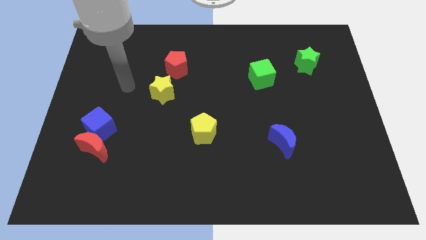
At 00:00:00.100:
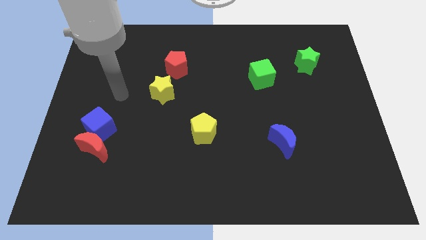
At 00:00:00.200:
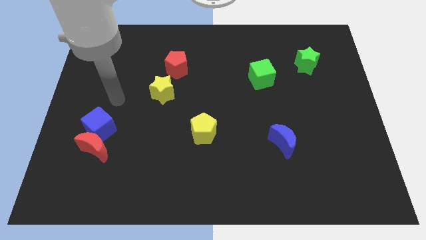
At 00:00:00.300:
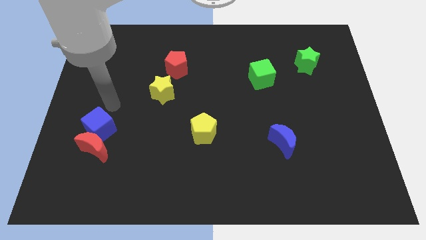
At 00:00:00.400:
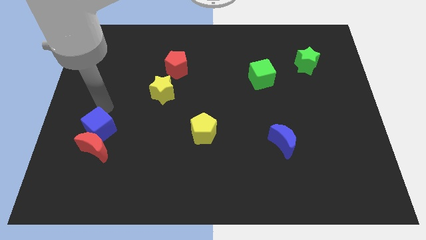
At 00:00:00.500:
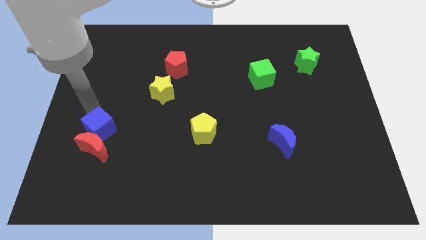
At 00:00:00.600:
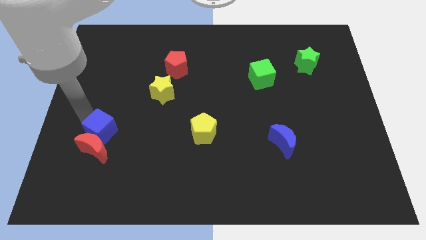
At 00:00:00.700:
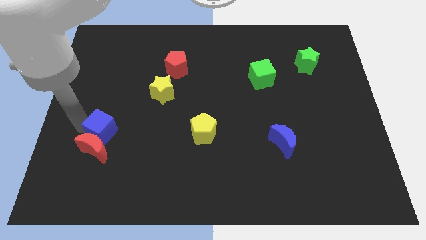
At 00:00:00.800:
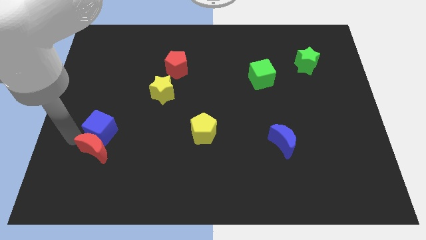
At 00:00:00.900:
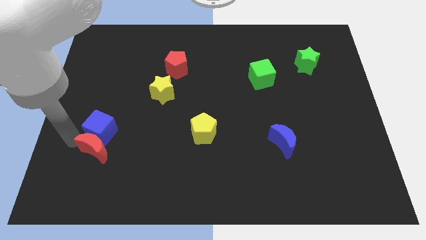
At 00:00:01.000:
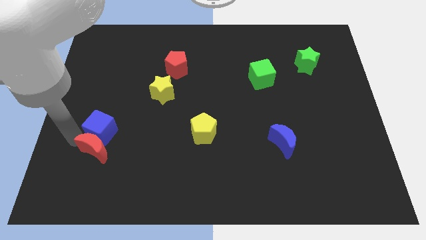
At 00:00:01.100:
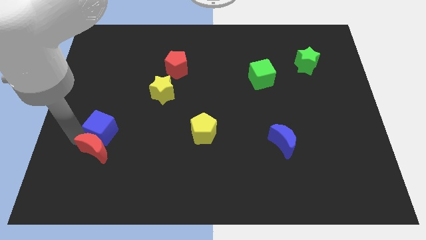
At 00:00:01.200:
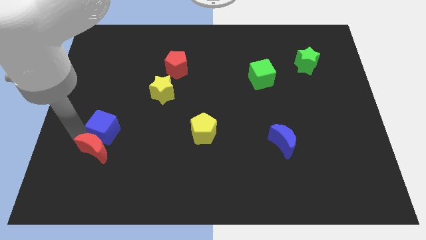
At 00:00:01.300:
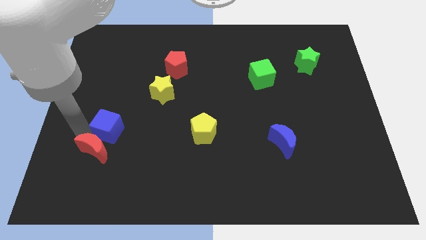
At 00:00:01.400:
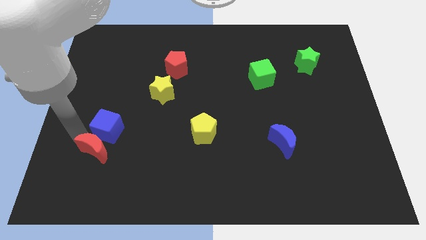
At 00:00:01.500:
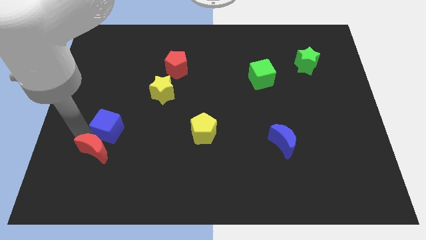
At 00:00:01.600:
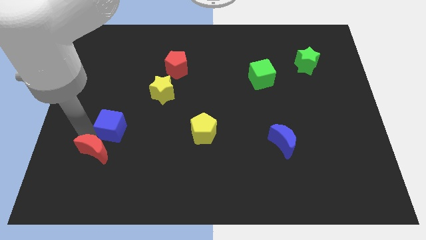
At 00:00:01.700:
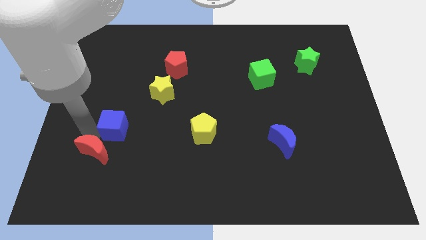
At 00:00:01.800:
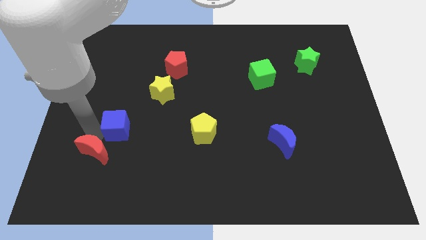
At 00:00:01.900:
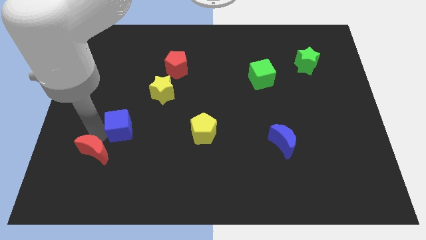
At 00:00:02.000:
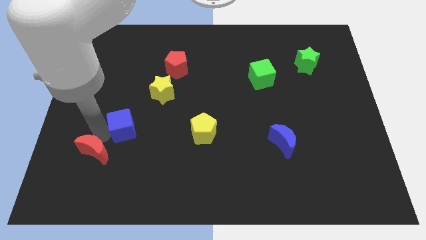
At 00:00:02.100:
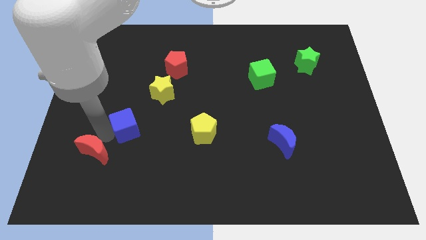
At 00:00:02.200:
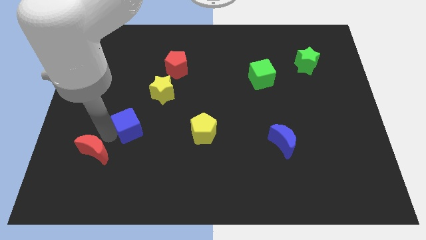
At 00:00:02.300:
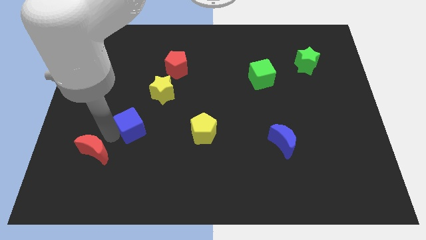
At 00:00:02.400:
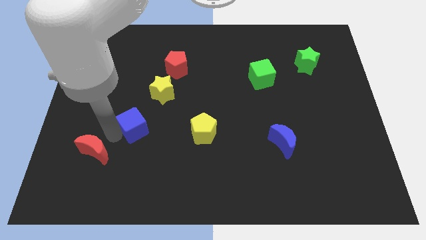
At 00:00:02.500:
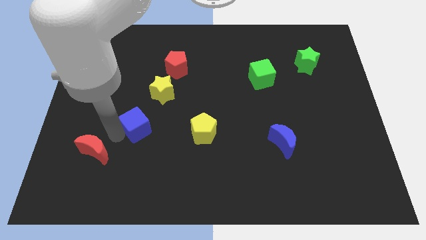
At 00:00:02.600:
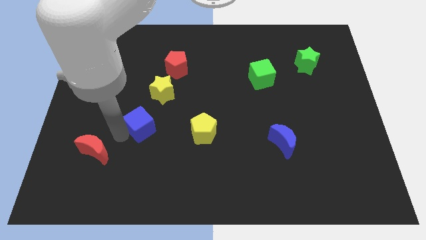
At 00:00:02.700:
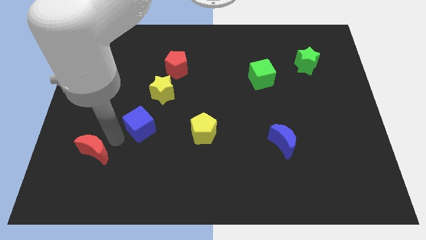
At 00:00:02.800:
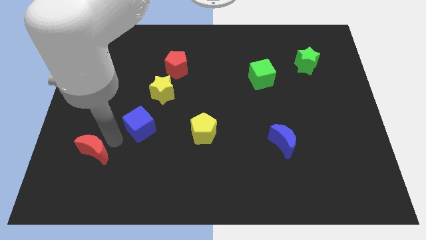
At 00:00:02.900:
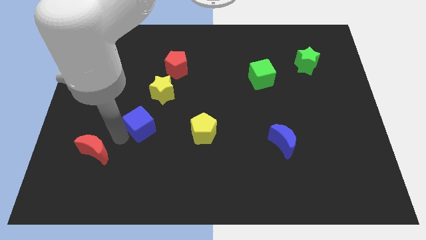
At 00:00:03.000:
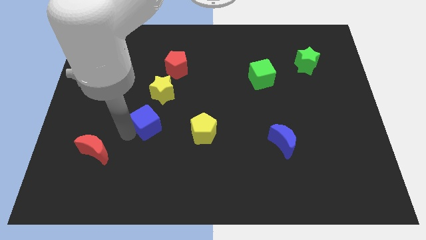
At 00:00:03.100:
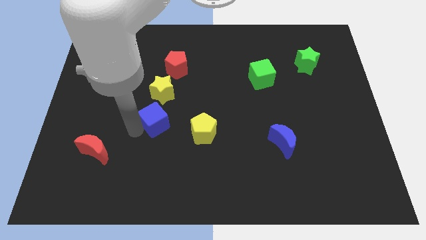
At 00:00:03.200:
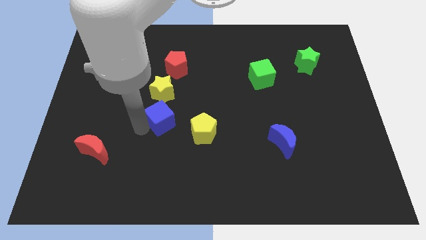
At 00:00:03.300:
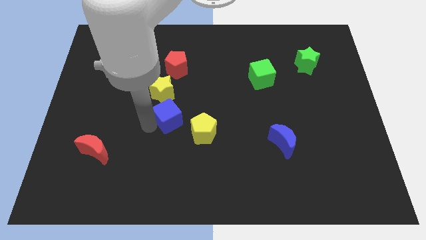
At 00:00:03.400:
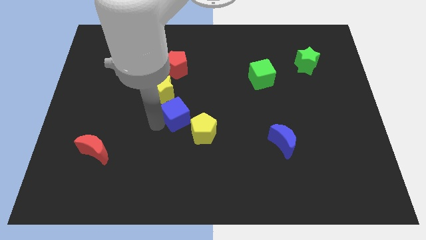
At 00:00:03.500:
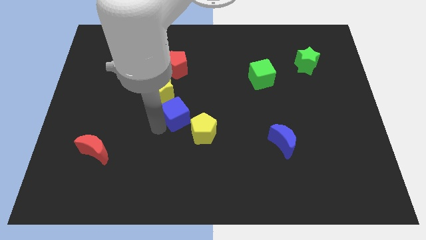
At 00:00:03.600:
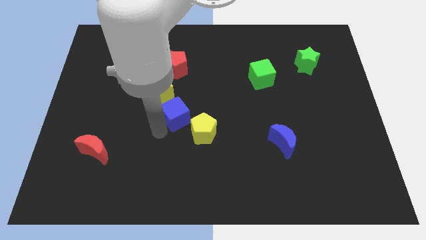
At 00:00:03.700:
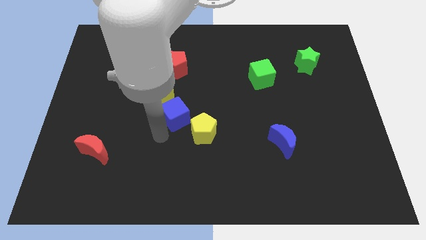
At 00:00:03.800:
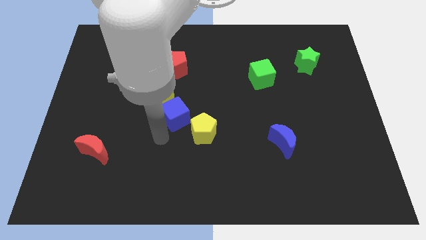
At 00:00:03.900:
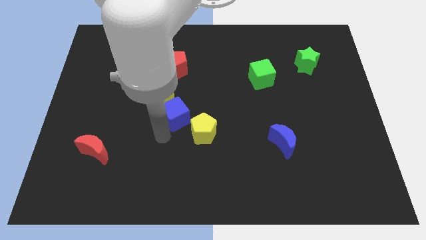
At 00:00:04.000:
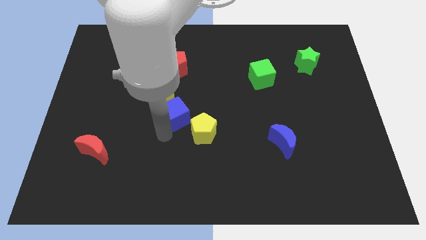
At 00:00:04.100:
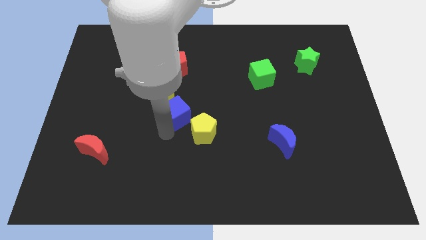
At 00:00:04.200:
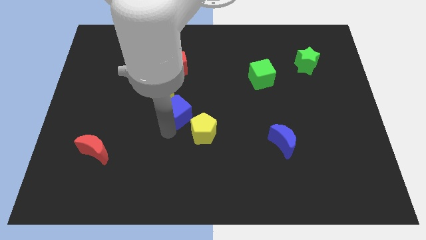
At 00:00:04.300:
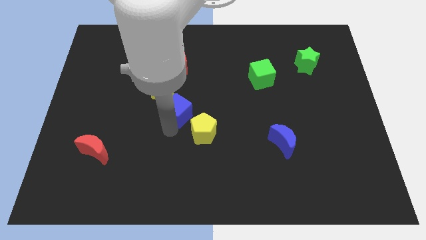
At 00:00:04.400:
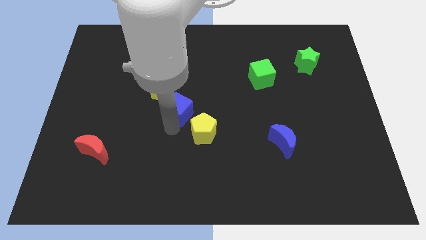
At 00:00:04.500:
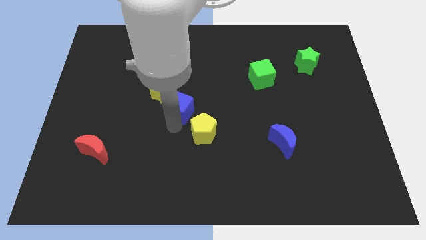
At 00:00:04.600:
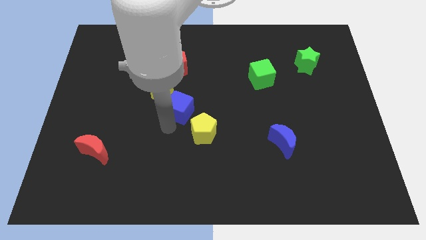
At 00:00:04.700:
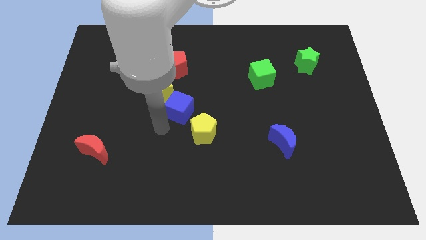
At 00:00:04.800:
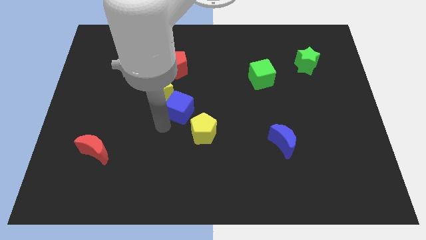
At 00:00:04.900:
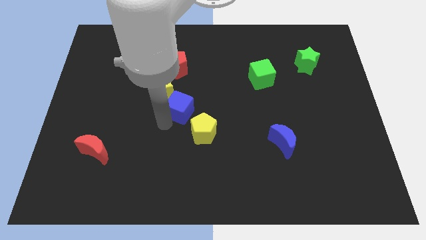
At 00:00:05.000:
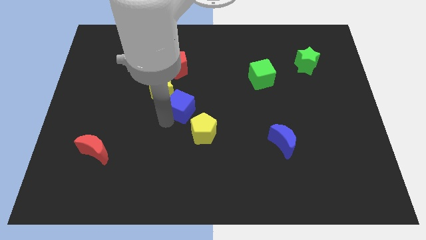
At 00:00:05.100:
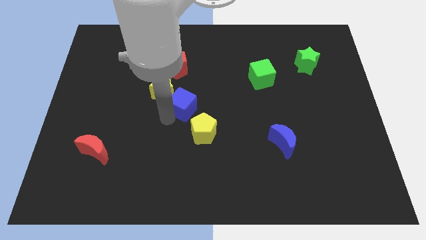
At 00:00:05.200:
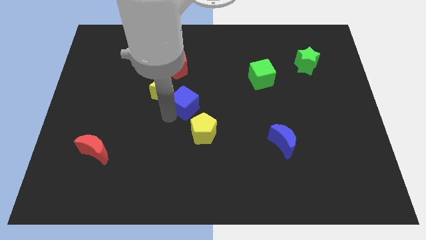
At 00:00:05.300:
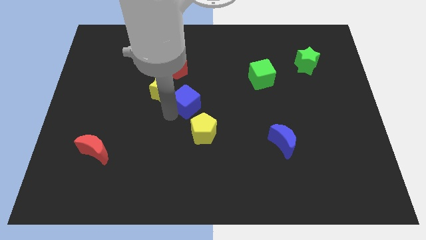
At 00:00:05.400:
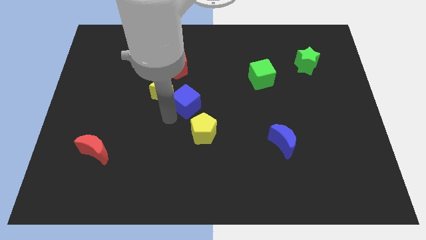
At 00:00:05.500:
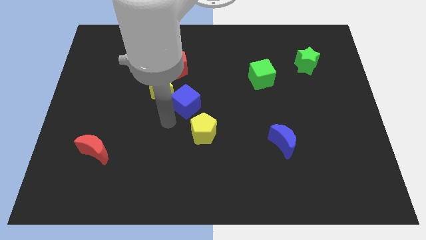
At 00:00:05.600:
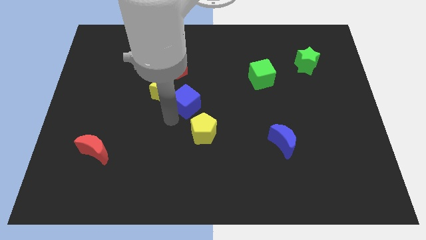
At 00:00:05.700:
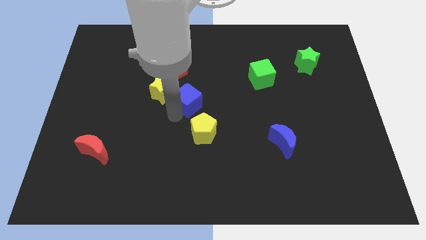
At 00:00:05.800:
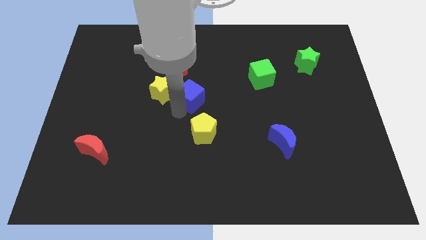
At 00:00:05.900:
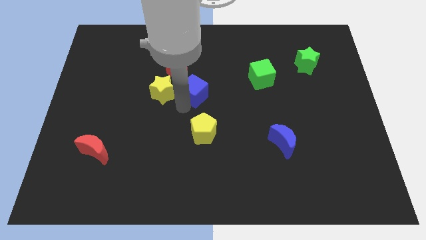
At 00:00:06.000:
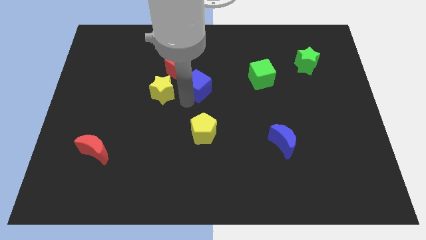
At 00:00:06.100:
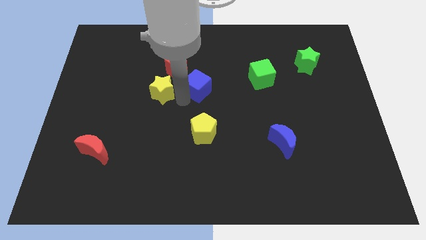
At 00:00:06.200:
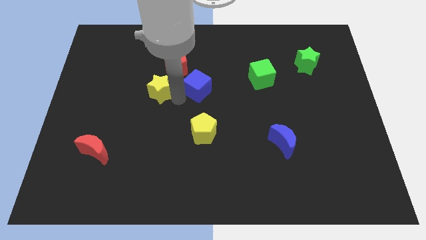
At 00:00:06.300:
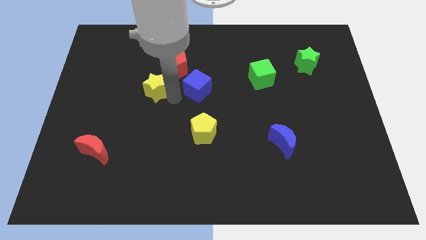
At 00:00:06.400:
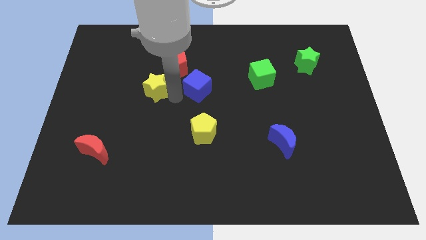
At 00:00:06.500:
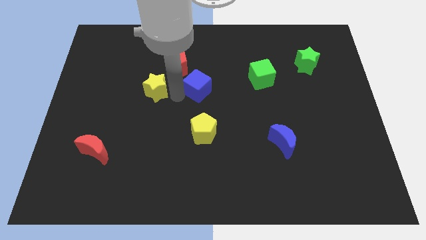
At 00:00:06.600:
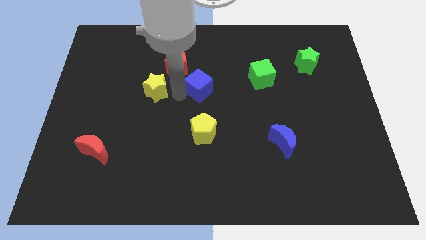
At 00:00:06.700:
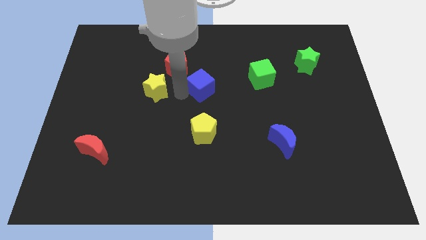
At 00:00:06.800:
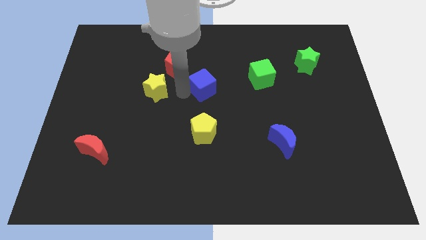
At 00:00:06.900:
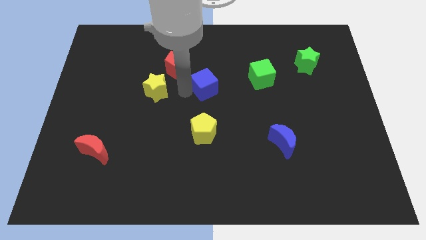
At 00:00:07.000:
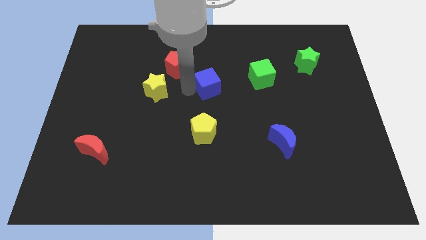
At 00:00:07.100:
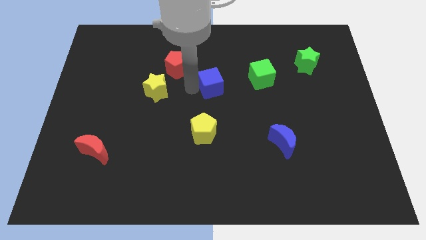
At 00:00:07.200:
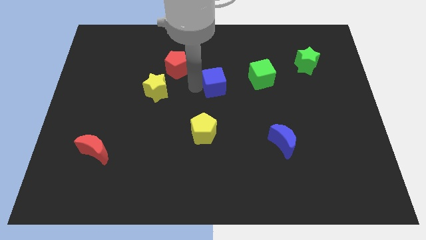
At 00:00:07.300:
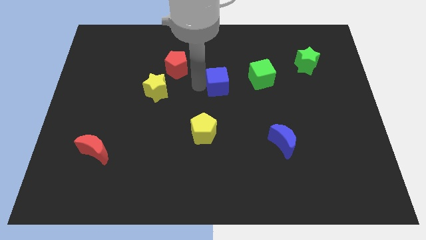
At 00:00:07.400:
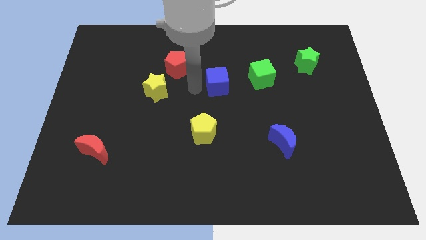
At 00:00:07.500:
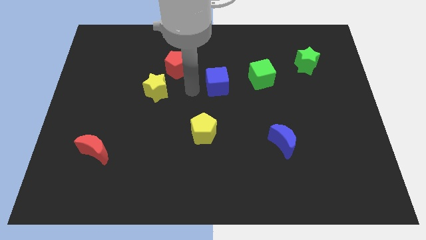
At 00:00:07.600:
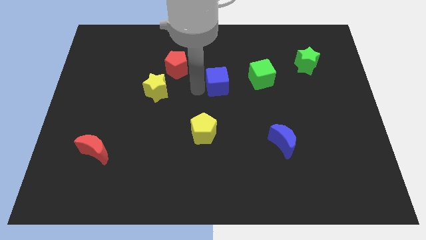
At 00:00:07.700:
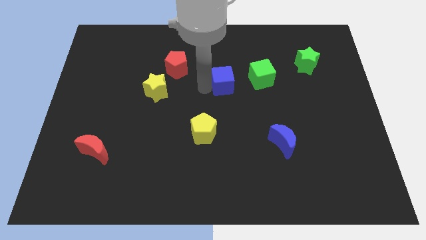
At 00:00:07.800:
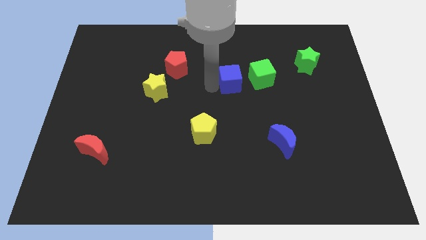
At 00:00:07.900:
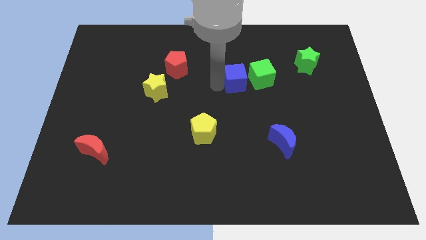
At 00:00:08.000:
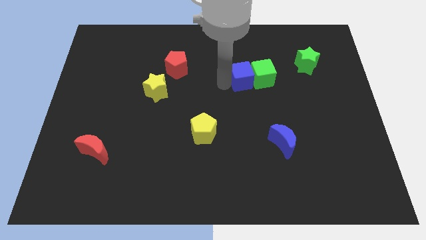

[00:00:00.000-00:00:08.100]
move the blue cube next to the green cube
